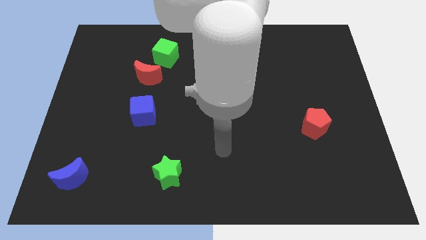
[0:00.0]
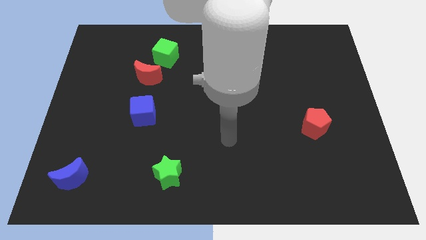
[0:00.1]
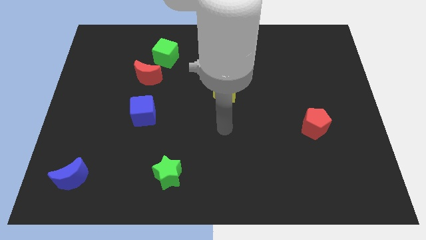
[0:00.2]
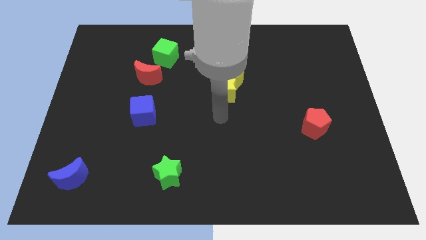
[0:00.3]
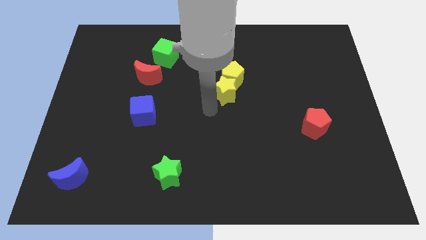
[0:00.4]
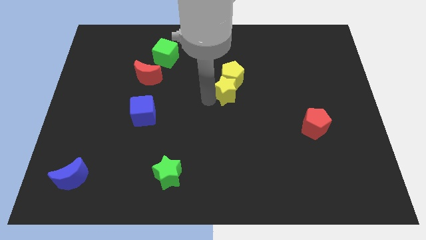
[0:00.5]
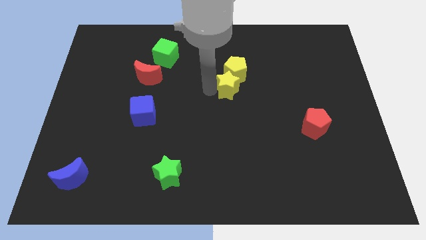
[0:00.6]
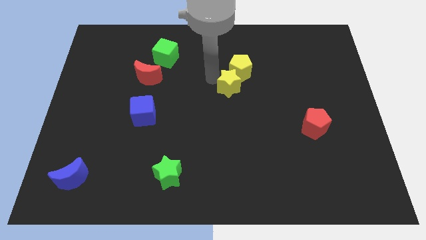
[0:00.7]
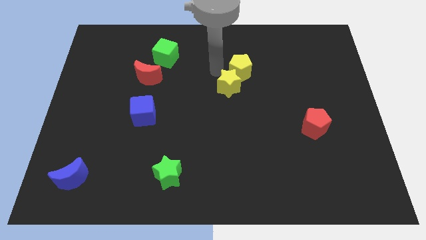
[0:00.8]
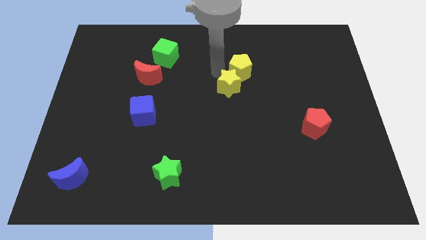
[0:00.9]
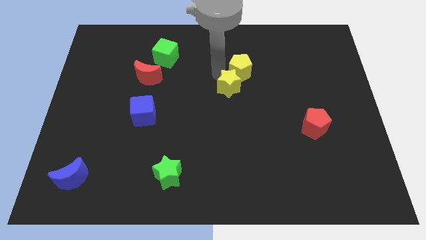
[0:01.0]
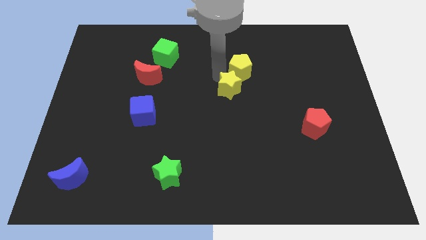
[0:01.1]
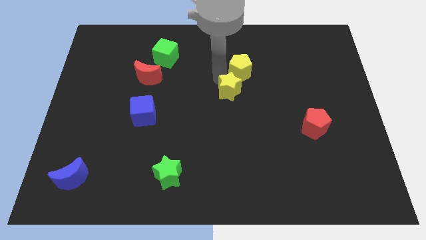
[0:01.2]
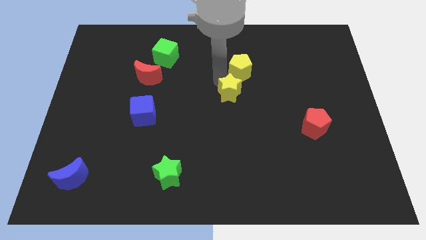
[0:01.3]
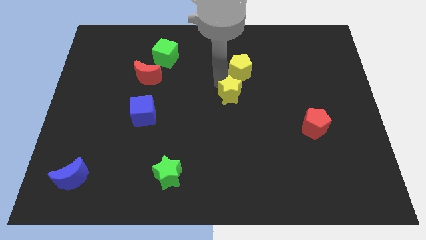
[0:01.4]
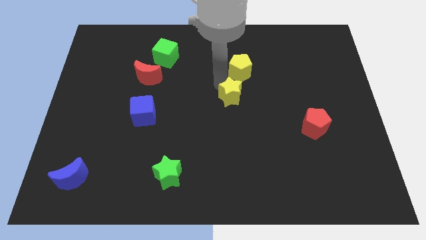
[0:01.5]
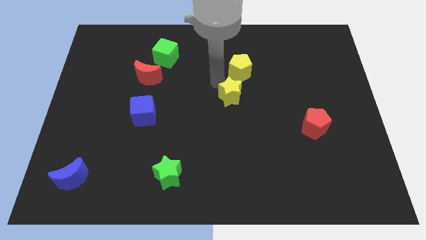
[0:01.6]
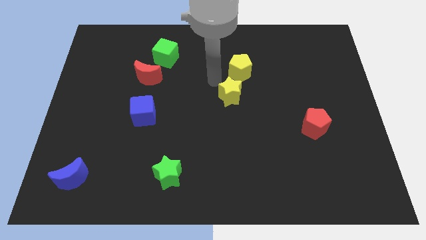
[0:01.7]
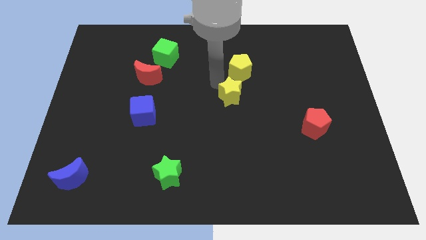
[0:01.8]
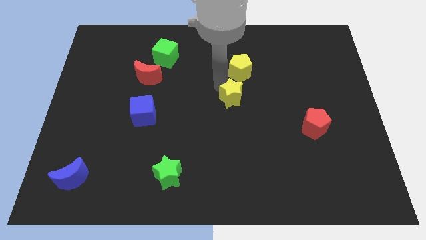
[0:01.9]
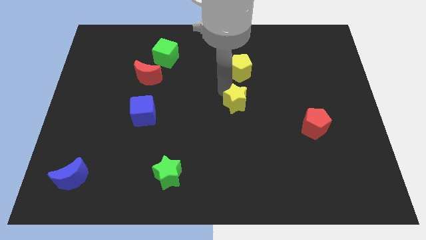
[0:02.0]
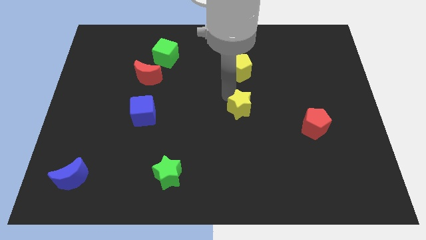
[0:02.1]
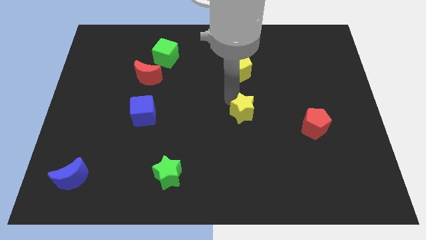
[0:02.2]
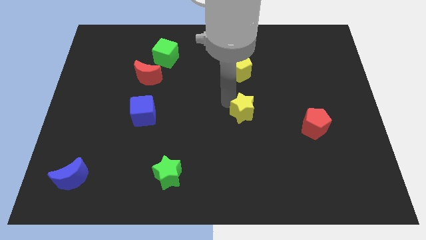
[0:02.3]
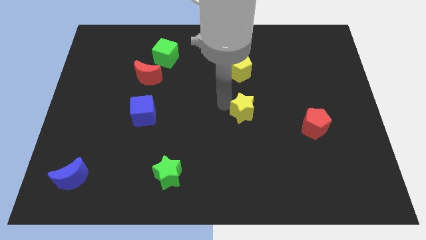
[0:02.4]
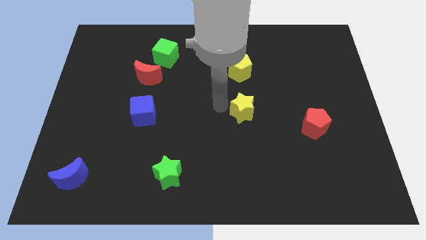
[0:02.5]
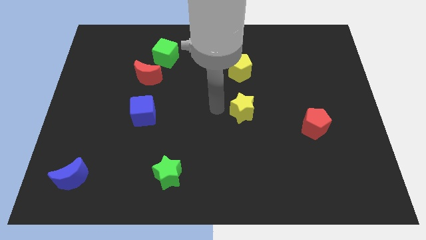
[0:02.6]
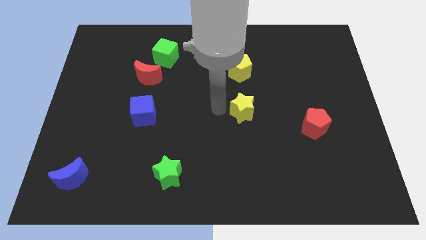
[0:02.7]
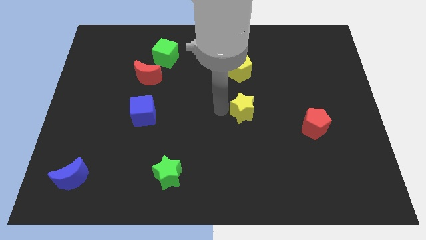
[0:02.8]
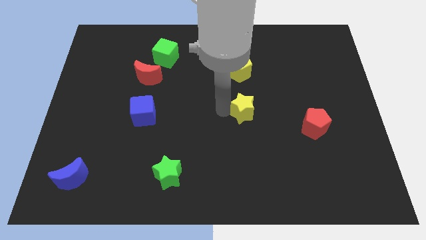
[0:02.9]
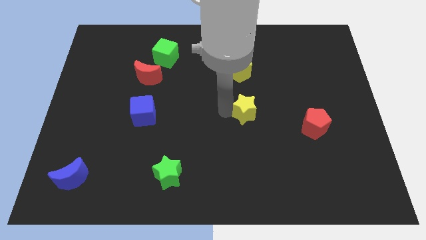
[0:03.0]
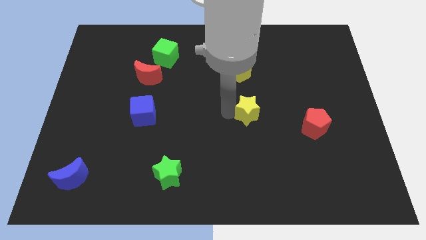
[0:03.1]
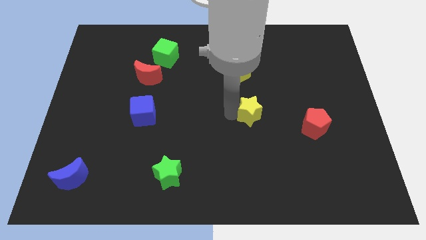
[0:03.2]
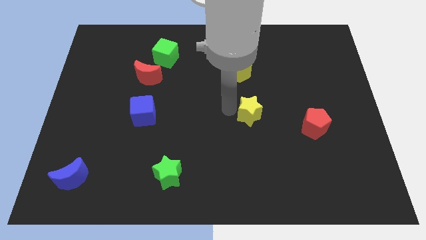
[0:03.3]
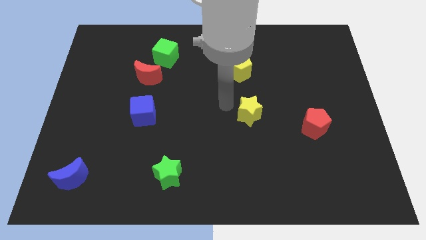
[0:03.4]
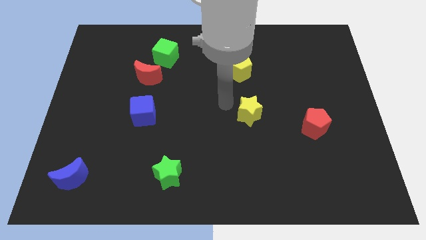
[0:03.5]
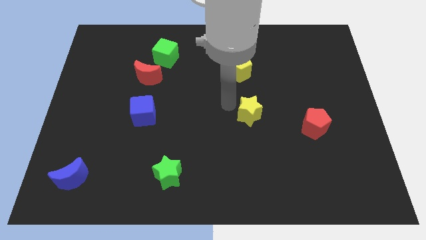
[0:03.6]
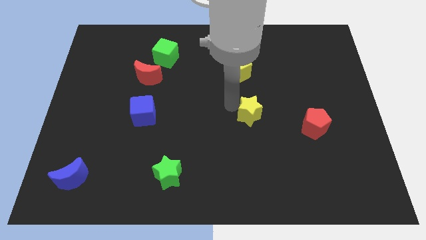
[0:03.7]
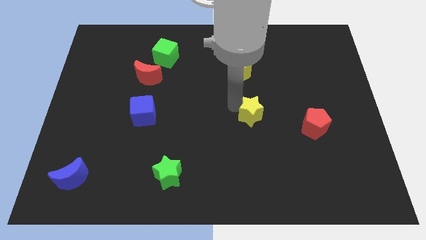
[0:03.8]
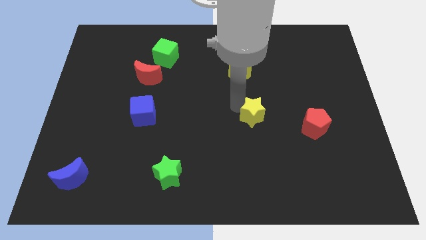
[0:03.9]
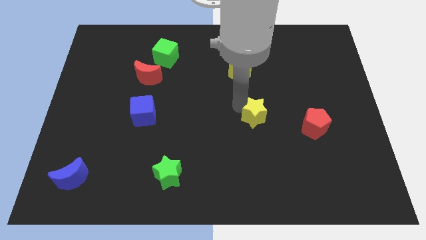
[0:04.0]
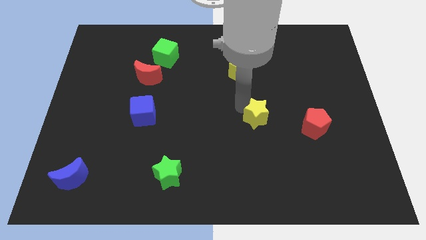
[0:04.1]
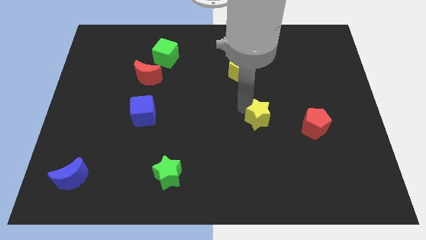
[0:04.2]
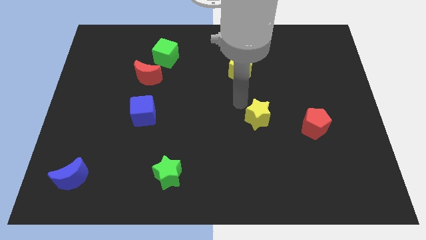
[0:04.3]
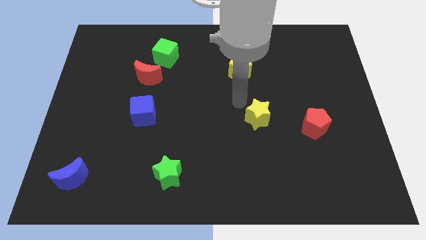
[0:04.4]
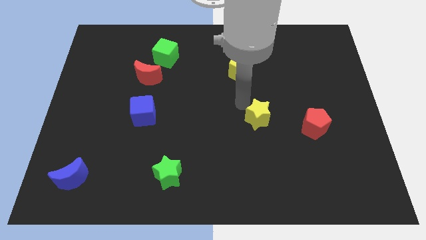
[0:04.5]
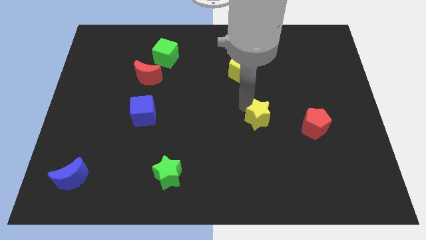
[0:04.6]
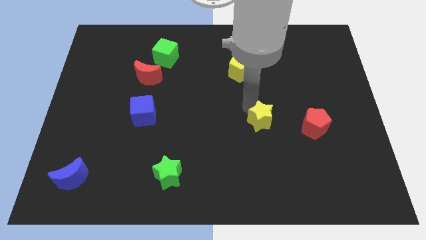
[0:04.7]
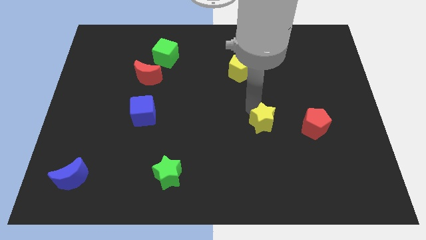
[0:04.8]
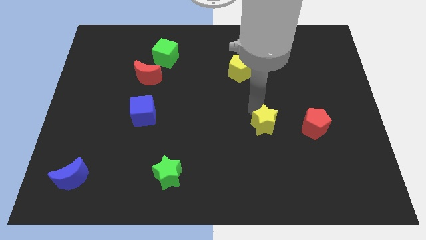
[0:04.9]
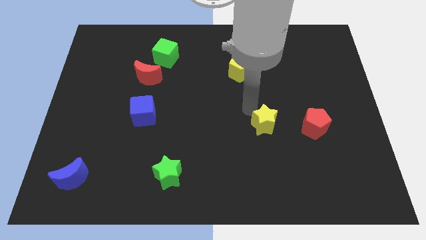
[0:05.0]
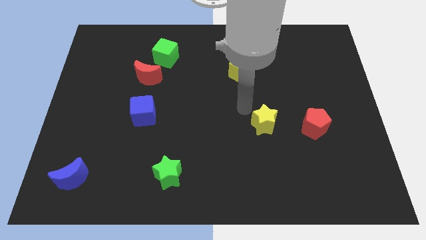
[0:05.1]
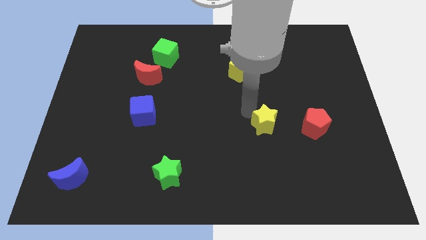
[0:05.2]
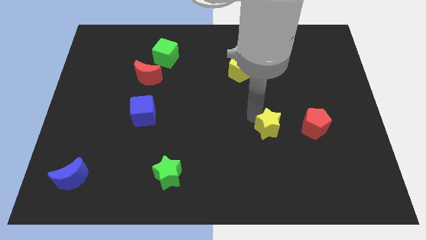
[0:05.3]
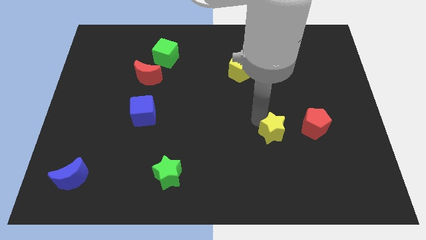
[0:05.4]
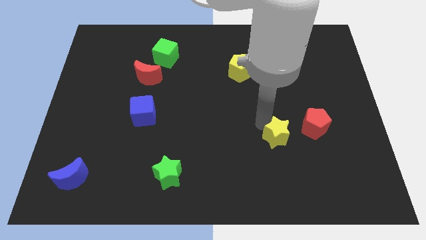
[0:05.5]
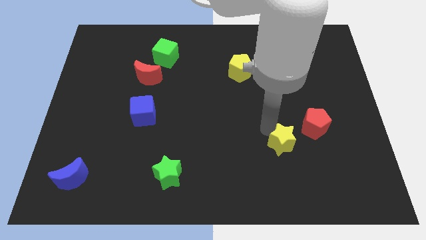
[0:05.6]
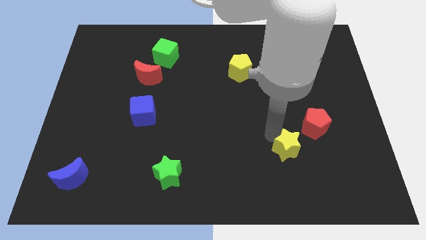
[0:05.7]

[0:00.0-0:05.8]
push the yellow star down and to the right diagonally

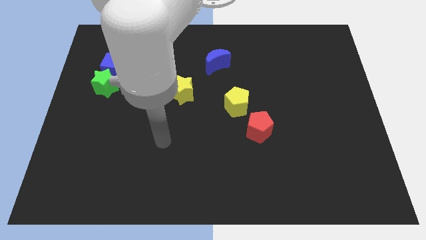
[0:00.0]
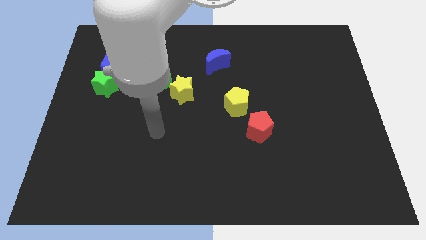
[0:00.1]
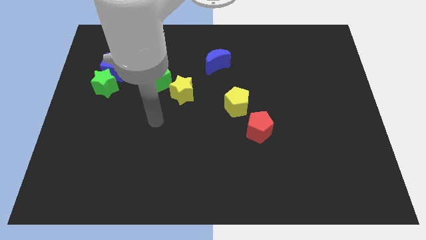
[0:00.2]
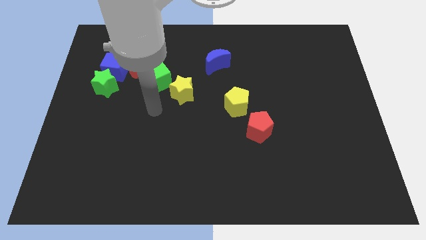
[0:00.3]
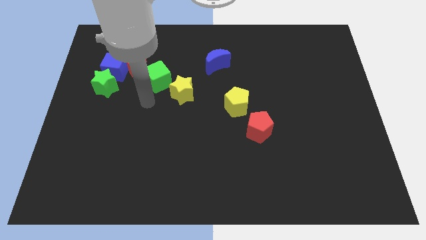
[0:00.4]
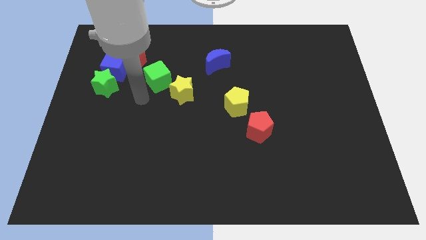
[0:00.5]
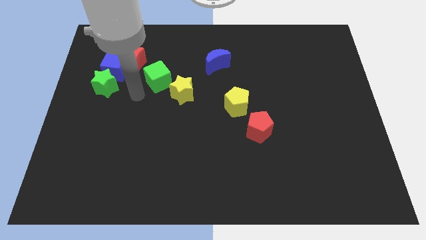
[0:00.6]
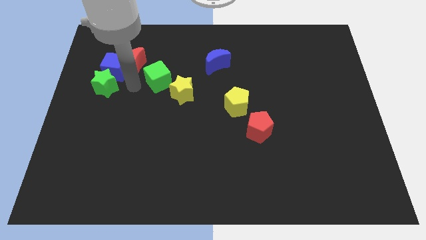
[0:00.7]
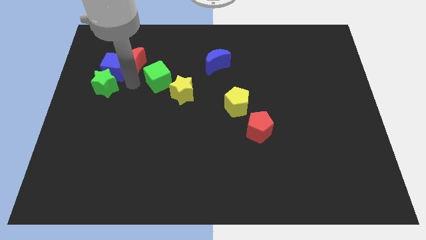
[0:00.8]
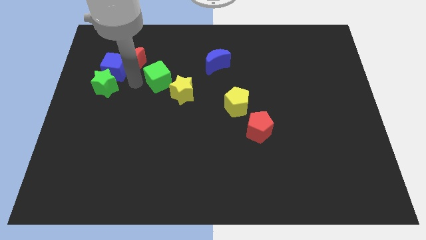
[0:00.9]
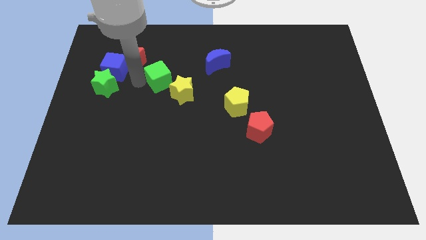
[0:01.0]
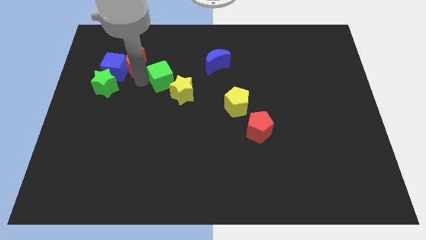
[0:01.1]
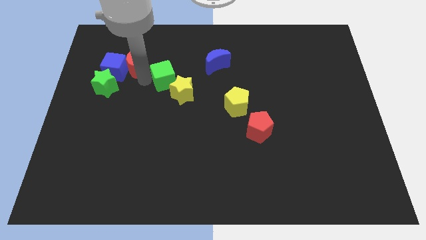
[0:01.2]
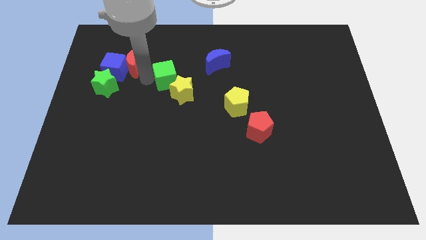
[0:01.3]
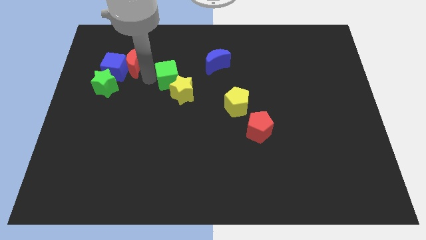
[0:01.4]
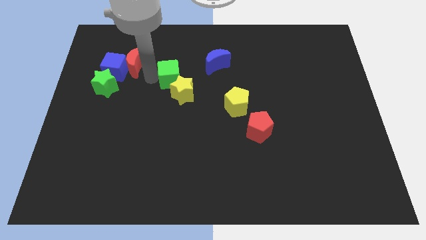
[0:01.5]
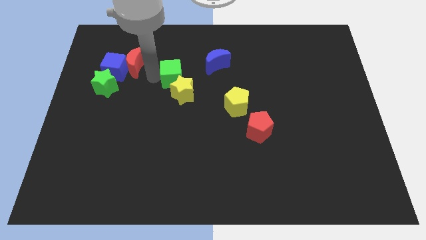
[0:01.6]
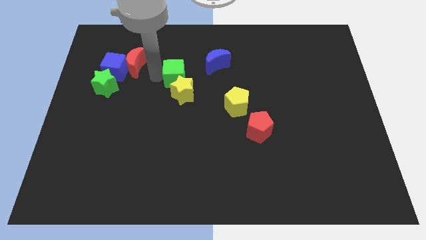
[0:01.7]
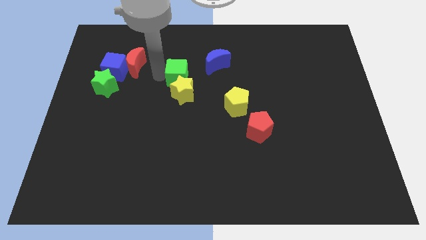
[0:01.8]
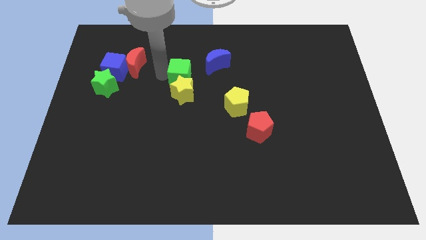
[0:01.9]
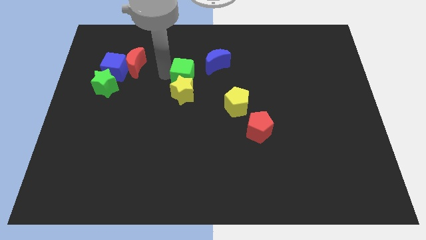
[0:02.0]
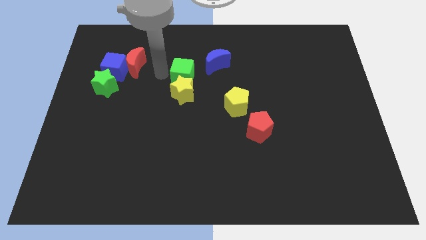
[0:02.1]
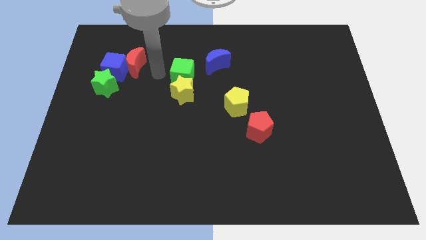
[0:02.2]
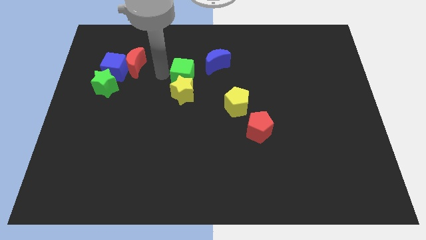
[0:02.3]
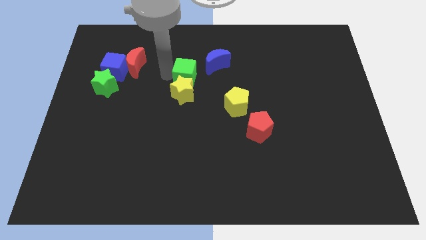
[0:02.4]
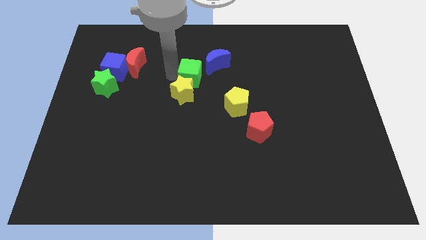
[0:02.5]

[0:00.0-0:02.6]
slide the green cube a little bit to the right
